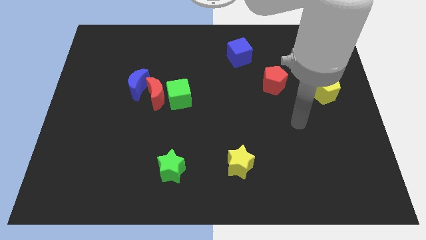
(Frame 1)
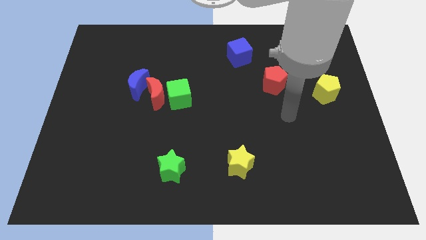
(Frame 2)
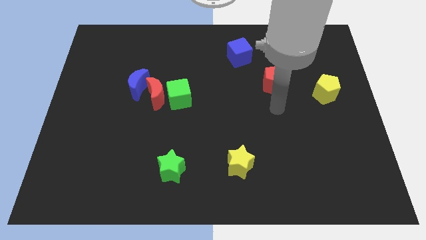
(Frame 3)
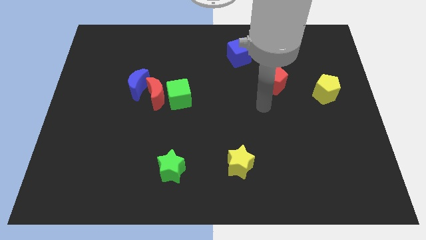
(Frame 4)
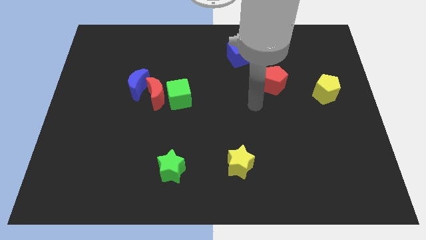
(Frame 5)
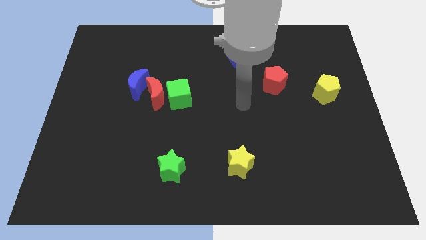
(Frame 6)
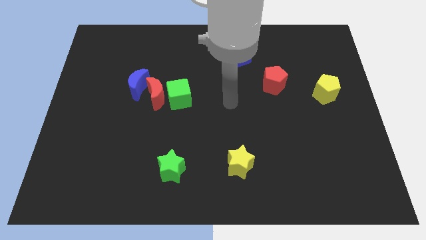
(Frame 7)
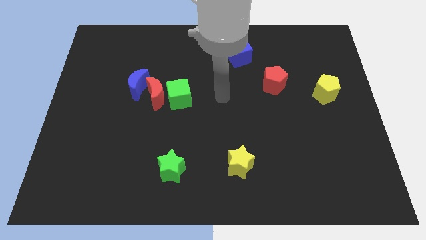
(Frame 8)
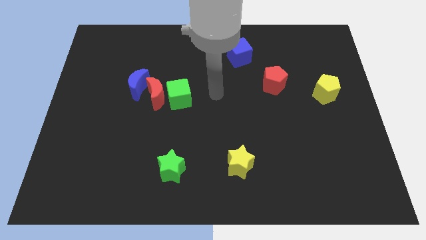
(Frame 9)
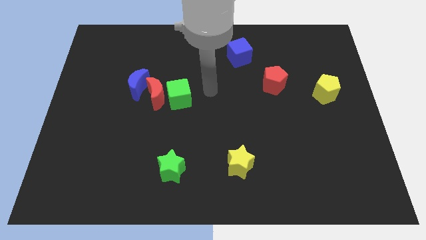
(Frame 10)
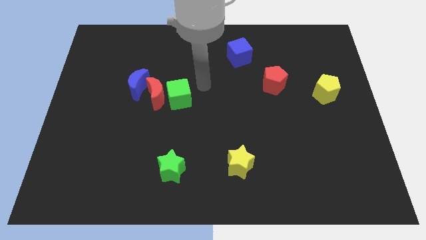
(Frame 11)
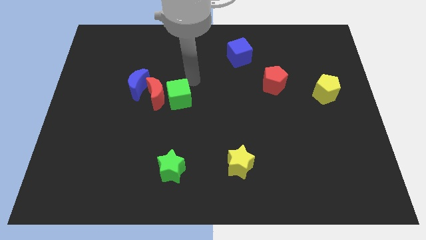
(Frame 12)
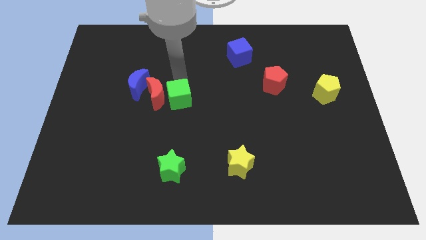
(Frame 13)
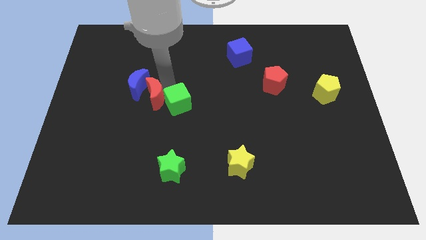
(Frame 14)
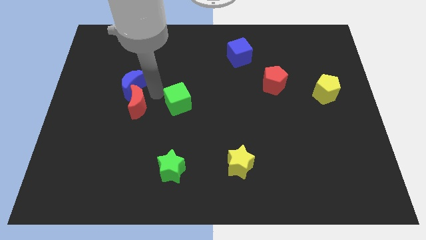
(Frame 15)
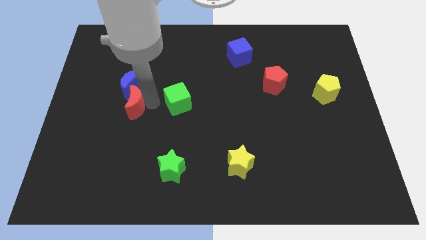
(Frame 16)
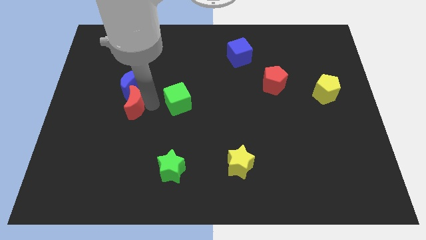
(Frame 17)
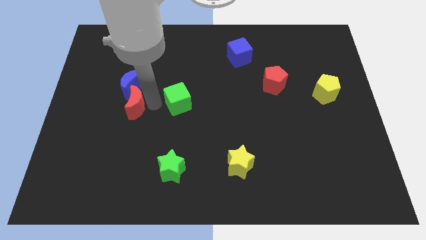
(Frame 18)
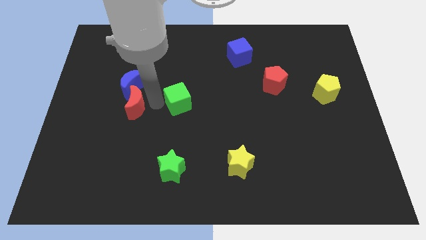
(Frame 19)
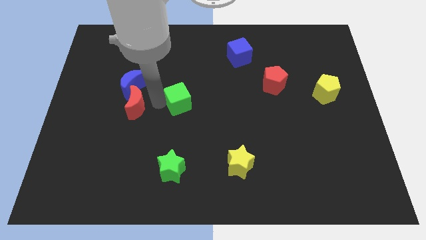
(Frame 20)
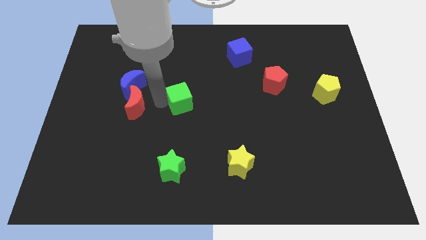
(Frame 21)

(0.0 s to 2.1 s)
pull the green cube apart from the red moon

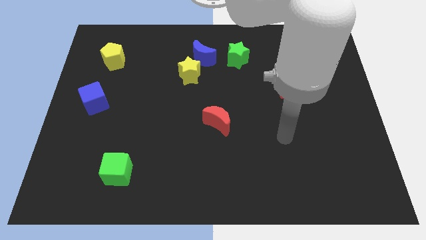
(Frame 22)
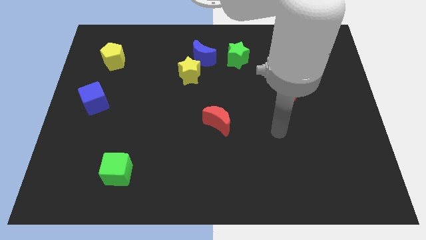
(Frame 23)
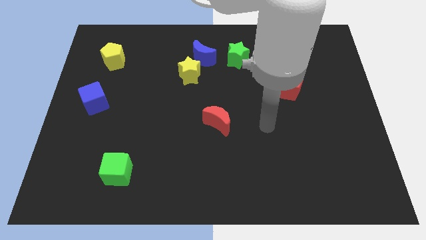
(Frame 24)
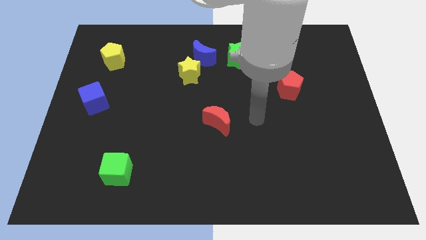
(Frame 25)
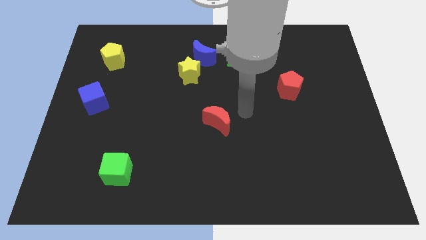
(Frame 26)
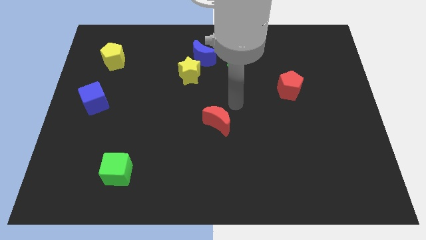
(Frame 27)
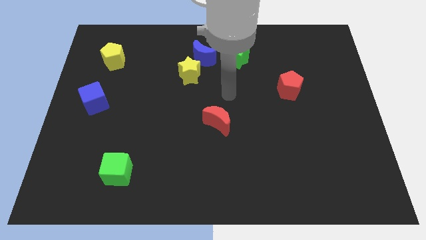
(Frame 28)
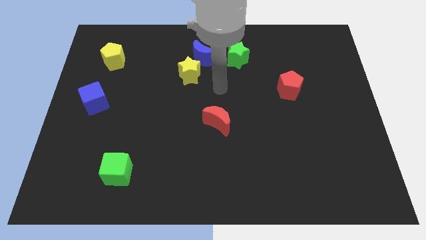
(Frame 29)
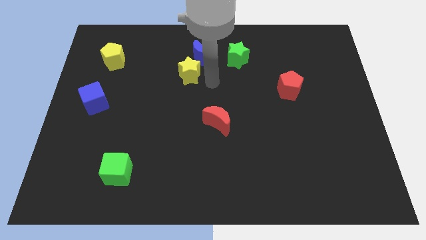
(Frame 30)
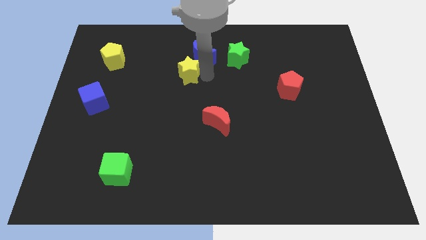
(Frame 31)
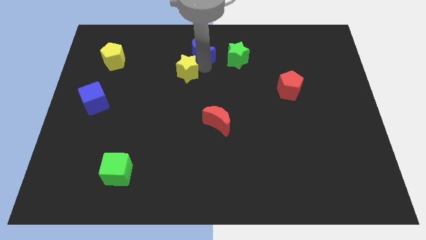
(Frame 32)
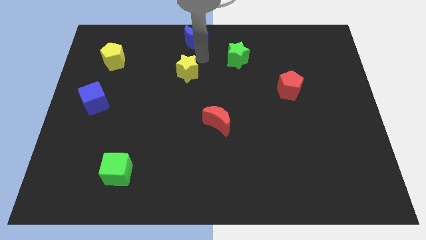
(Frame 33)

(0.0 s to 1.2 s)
pull the yellow star apart from the blue moon

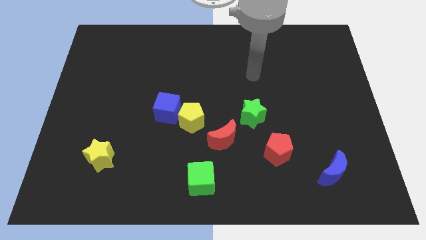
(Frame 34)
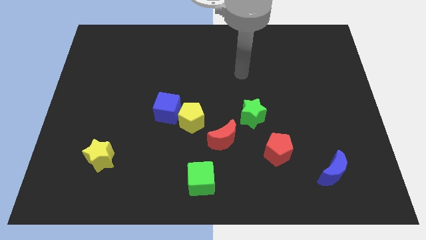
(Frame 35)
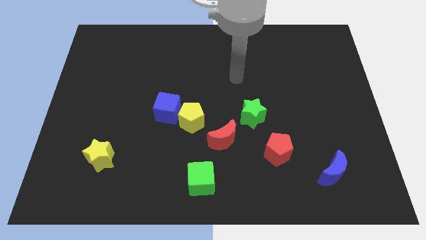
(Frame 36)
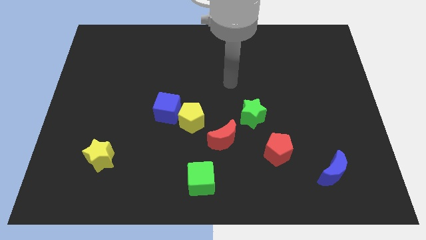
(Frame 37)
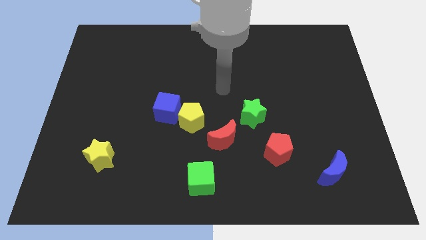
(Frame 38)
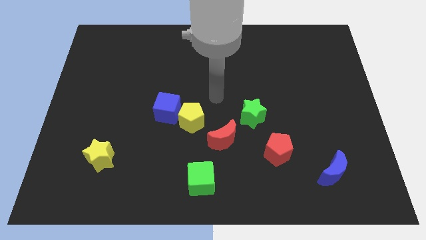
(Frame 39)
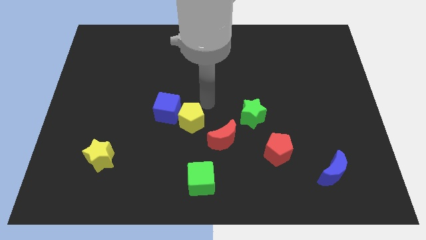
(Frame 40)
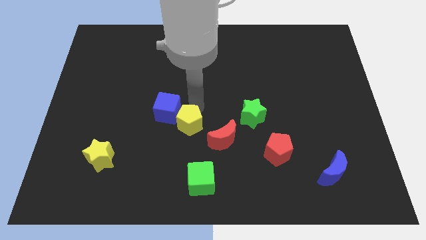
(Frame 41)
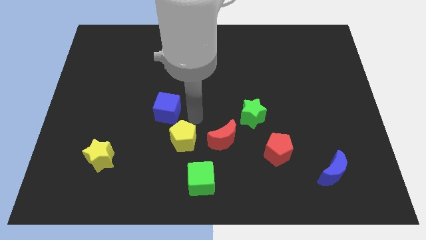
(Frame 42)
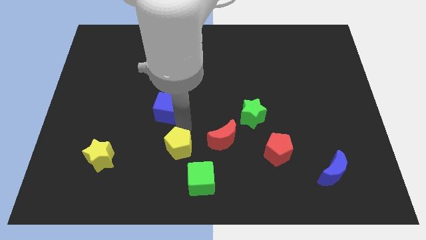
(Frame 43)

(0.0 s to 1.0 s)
pull the blue cube apart from the yellow pentagon

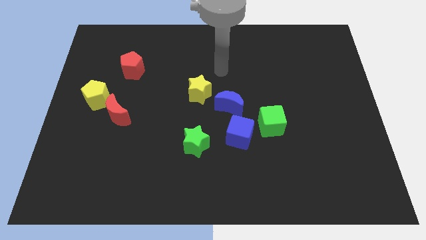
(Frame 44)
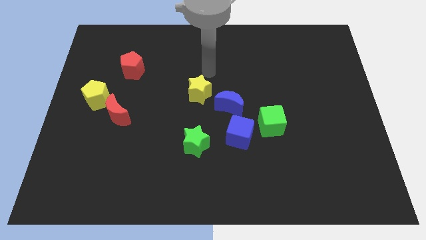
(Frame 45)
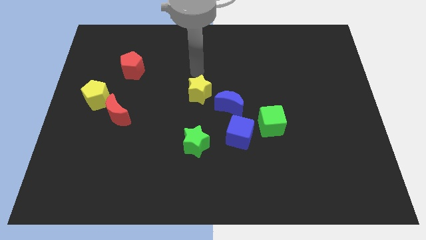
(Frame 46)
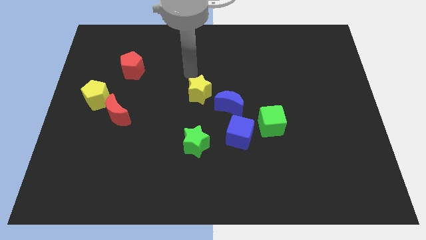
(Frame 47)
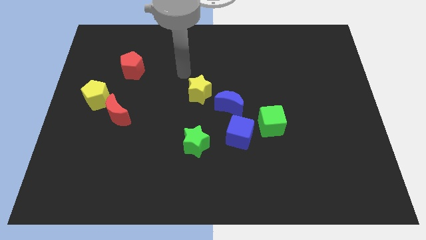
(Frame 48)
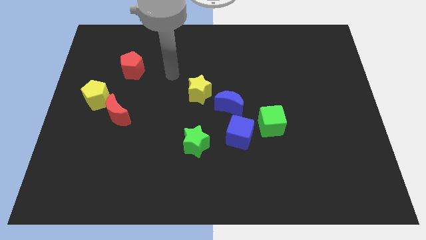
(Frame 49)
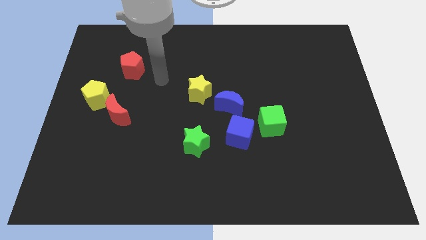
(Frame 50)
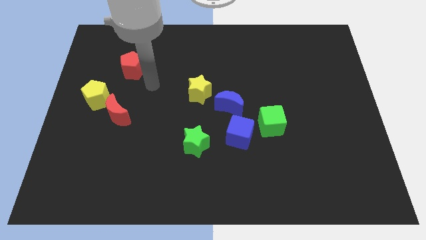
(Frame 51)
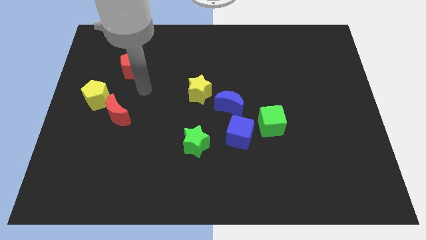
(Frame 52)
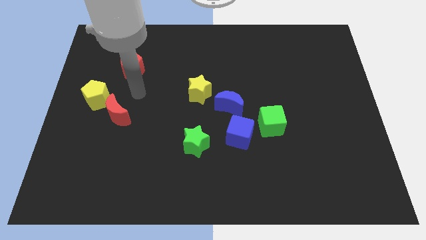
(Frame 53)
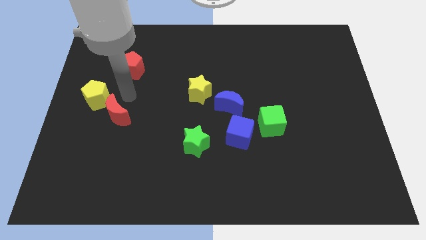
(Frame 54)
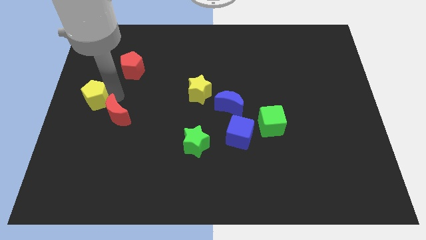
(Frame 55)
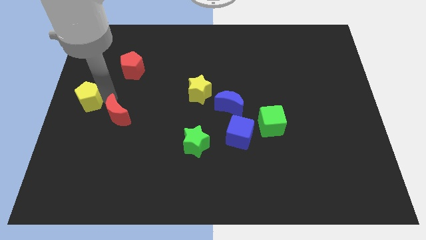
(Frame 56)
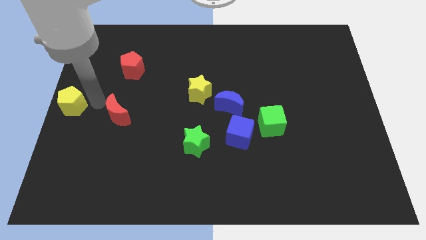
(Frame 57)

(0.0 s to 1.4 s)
separate the red moon from the yellow pentagon

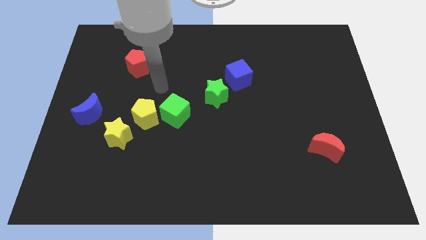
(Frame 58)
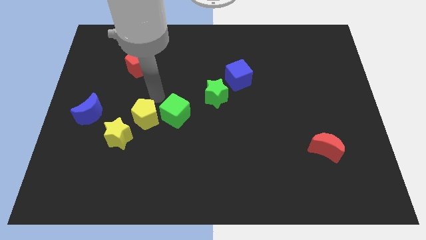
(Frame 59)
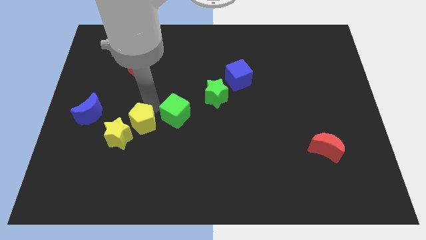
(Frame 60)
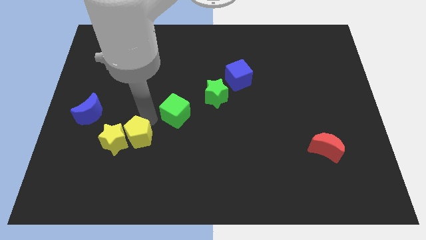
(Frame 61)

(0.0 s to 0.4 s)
separate the green cube from the yellow pentagon

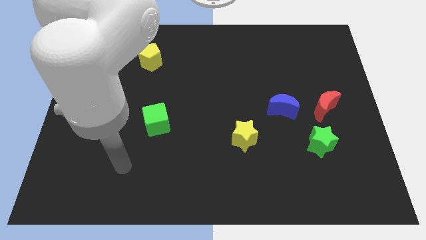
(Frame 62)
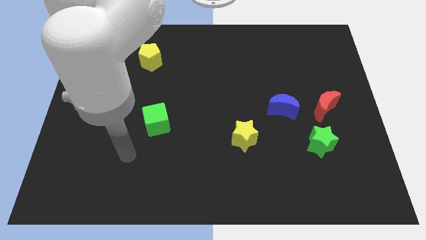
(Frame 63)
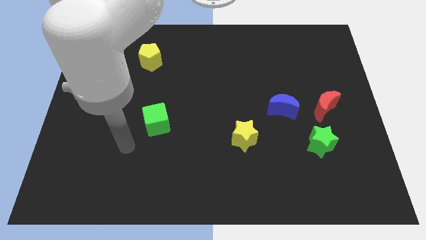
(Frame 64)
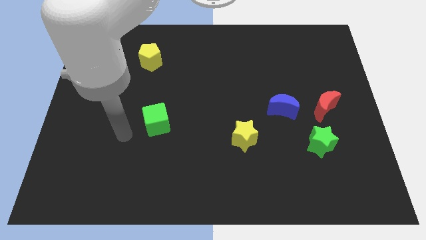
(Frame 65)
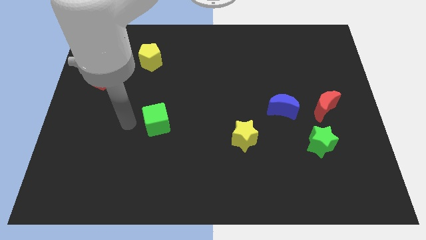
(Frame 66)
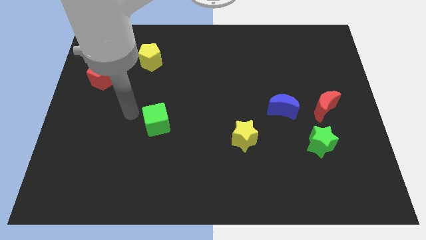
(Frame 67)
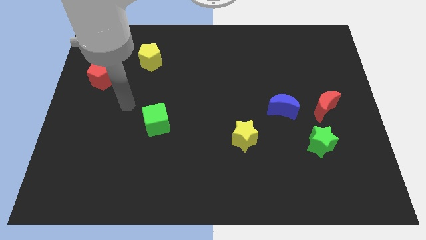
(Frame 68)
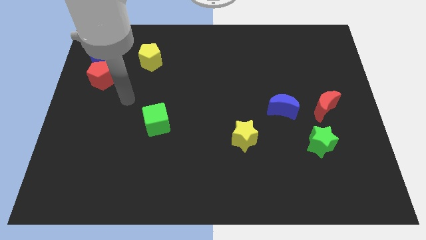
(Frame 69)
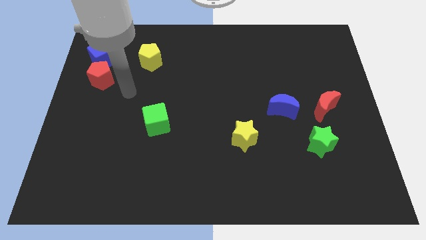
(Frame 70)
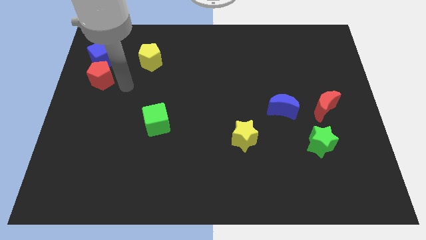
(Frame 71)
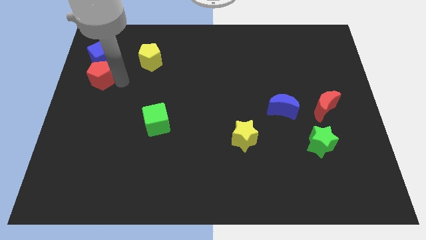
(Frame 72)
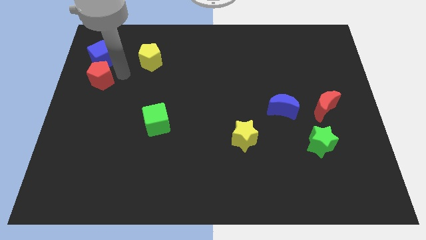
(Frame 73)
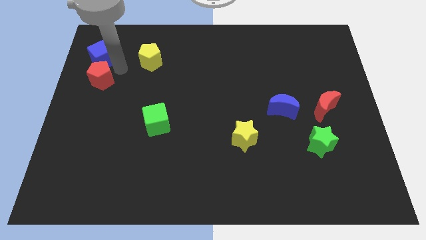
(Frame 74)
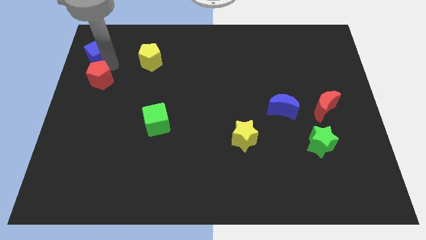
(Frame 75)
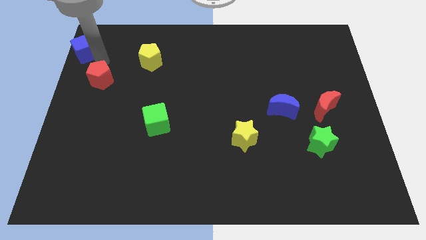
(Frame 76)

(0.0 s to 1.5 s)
separate the red pentagon from the blue cube

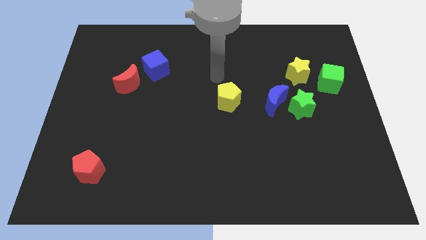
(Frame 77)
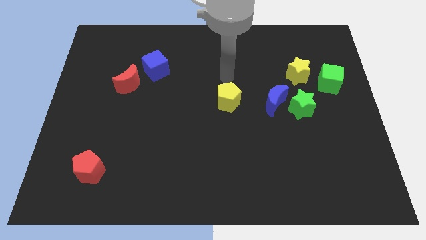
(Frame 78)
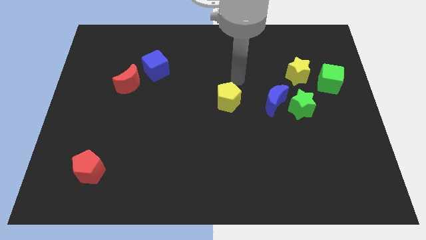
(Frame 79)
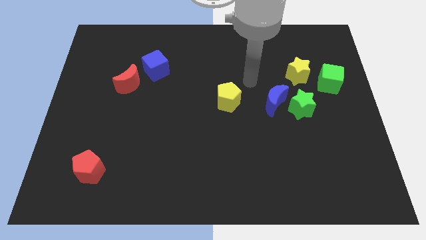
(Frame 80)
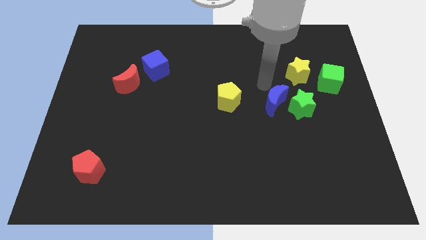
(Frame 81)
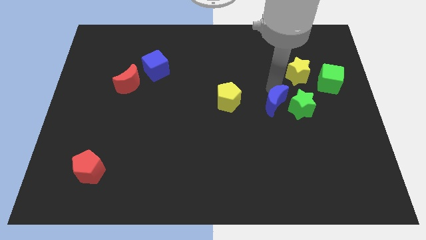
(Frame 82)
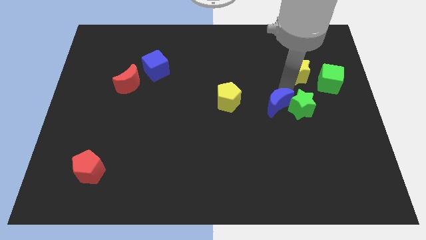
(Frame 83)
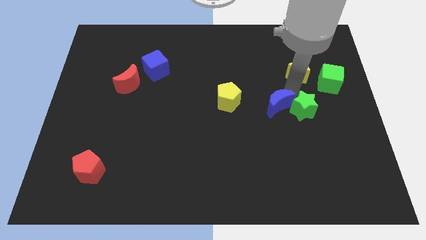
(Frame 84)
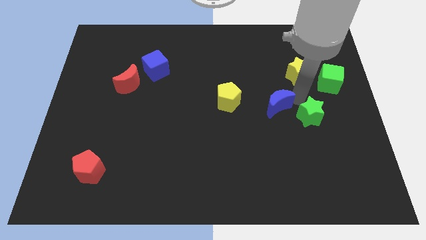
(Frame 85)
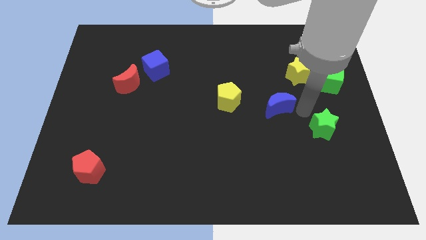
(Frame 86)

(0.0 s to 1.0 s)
move the blue moon away from the green star

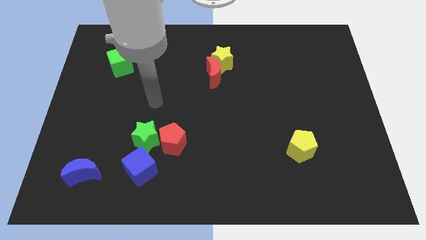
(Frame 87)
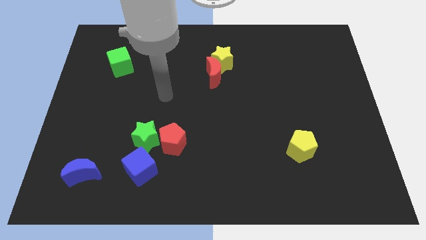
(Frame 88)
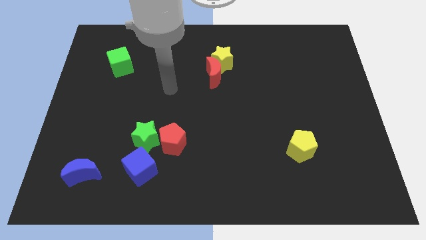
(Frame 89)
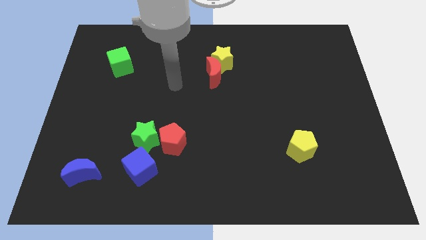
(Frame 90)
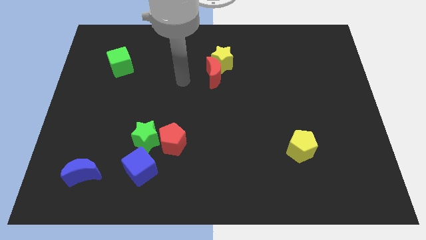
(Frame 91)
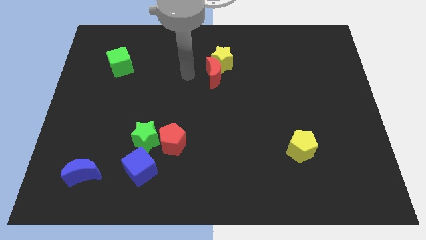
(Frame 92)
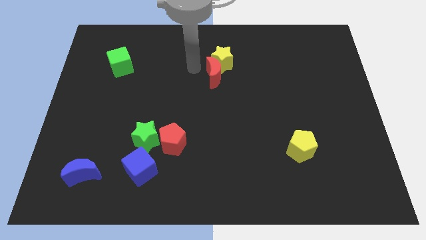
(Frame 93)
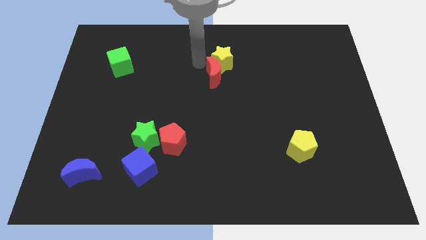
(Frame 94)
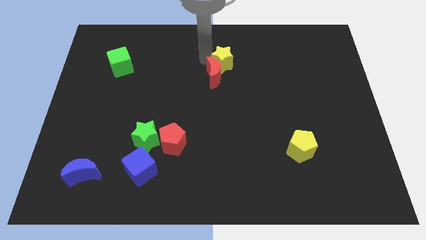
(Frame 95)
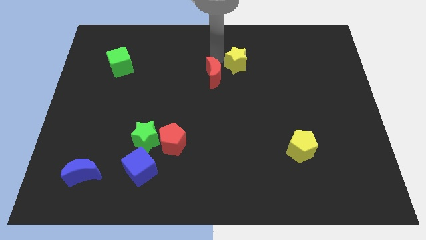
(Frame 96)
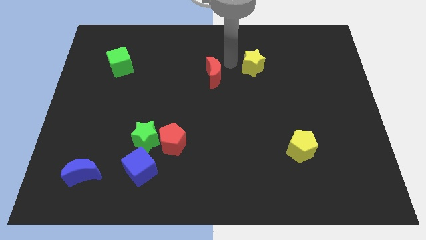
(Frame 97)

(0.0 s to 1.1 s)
pull the red moon apart from the yellow star
